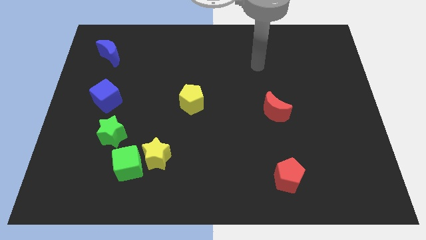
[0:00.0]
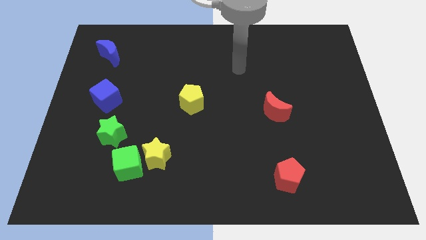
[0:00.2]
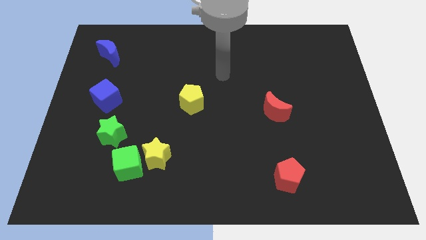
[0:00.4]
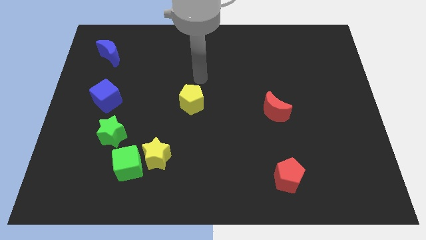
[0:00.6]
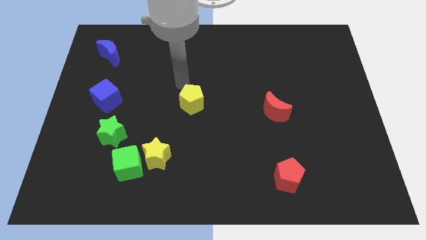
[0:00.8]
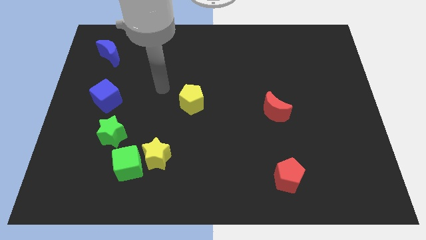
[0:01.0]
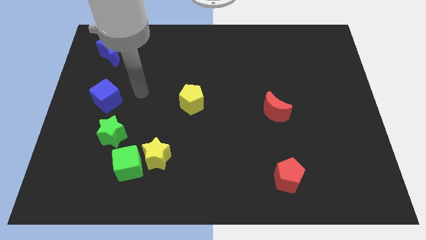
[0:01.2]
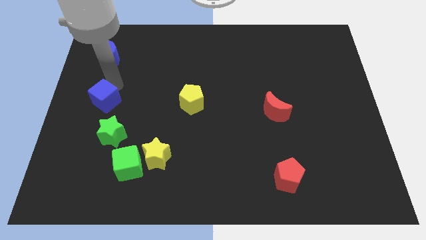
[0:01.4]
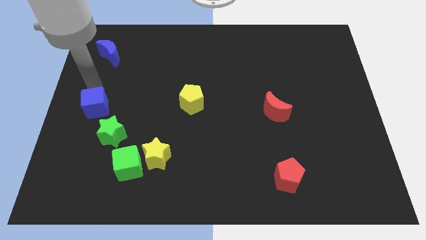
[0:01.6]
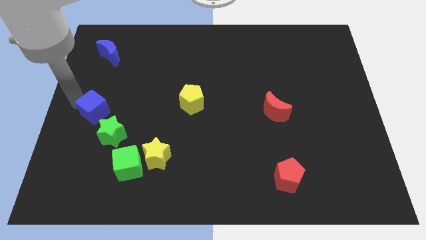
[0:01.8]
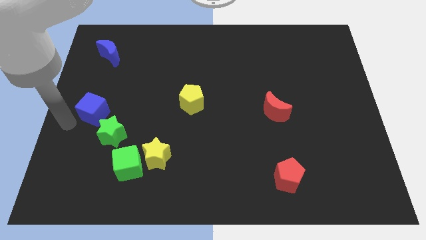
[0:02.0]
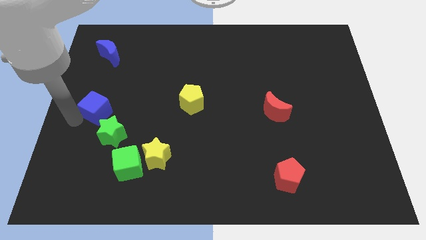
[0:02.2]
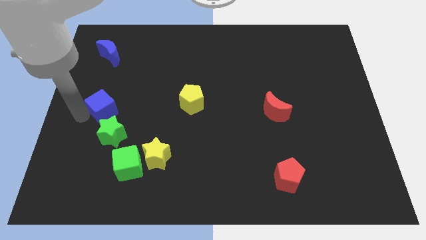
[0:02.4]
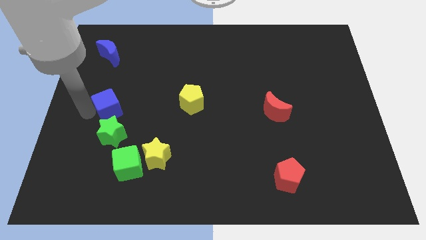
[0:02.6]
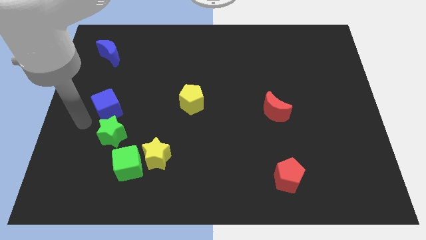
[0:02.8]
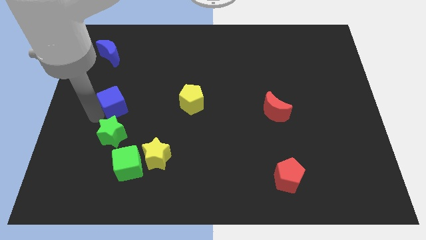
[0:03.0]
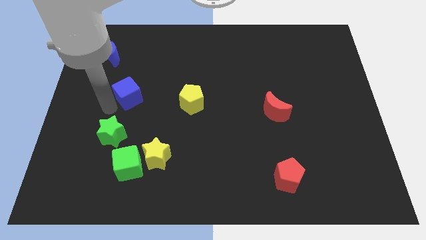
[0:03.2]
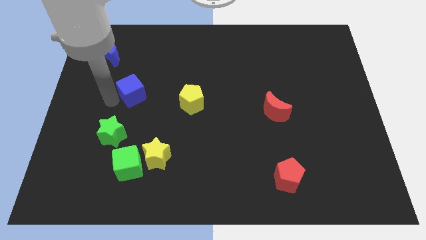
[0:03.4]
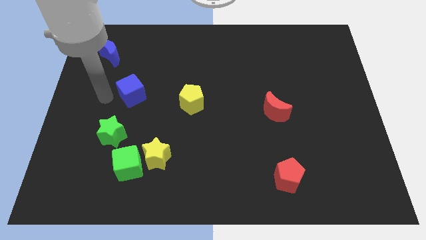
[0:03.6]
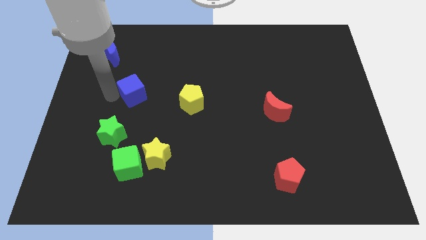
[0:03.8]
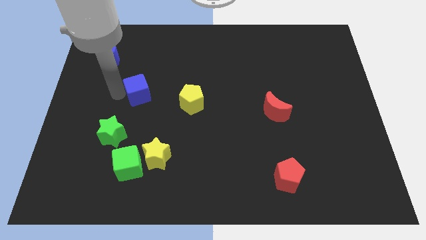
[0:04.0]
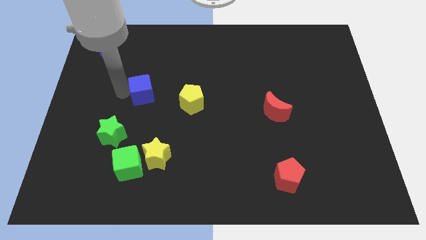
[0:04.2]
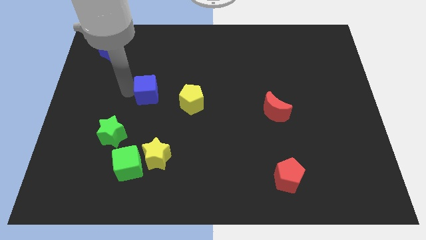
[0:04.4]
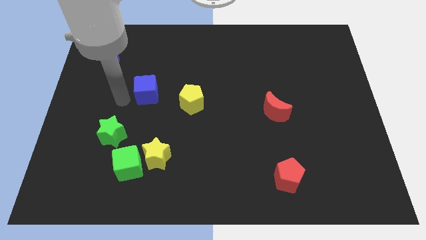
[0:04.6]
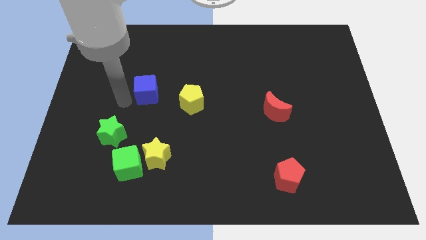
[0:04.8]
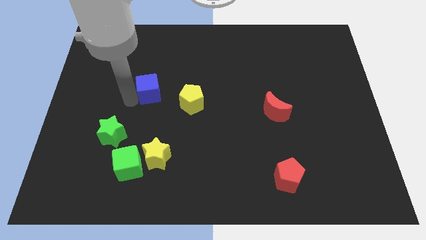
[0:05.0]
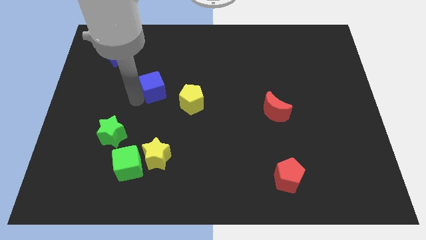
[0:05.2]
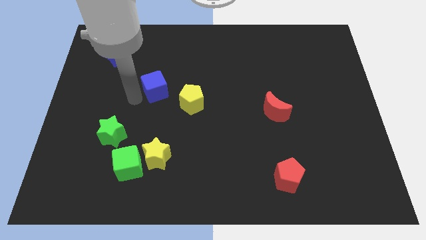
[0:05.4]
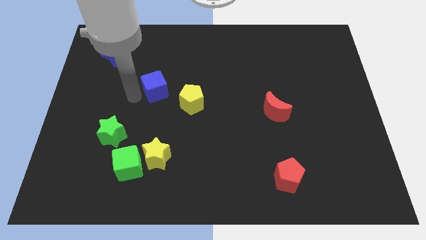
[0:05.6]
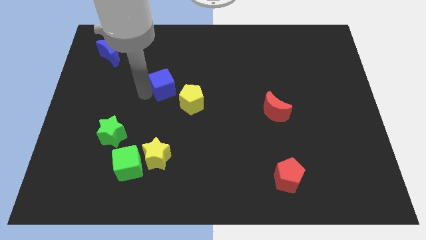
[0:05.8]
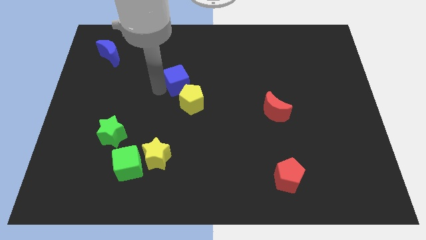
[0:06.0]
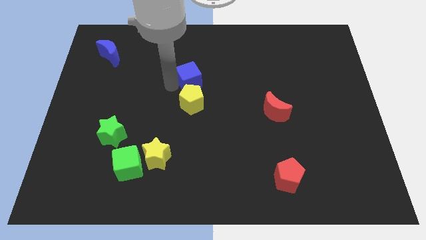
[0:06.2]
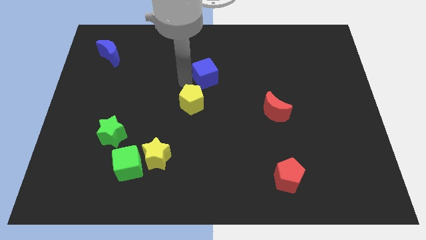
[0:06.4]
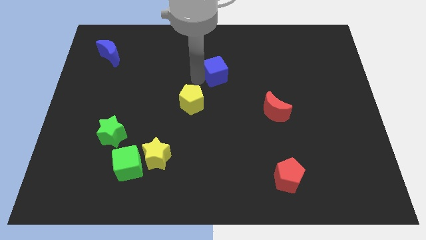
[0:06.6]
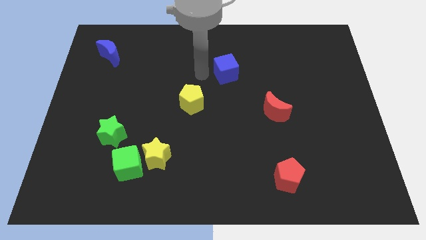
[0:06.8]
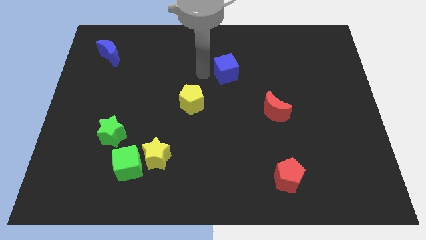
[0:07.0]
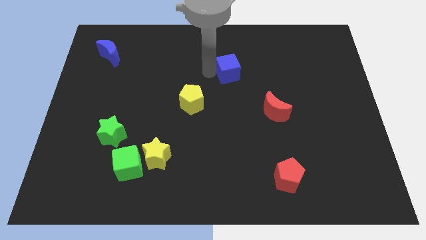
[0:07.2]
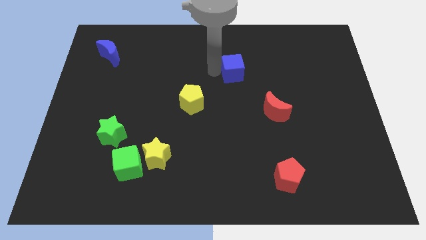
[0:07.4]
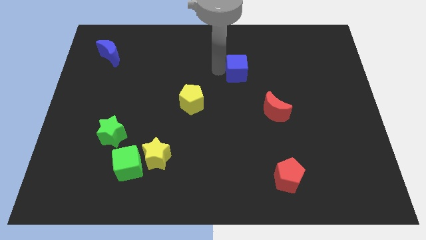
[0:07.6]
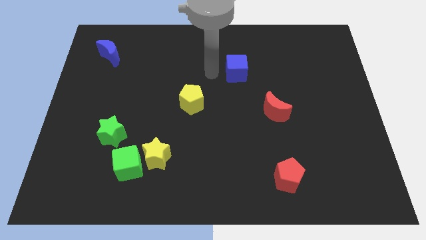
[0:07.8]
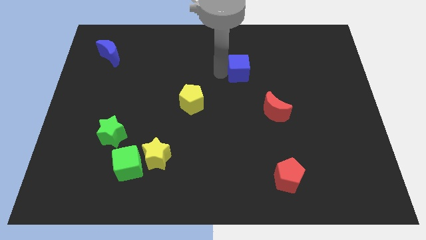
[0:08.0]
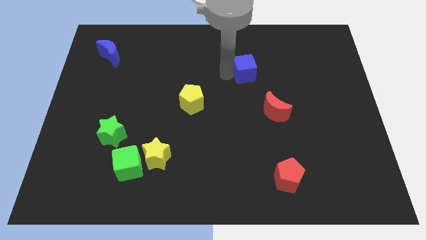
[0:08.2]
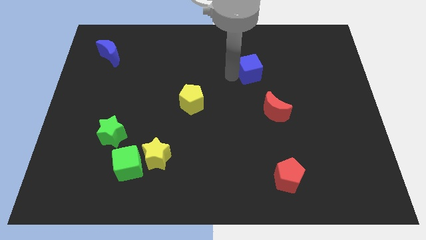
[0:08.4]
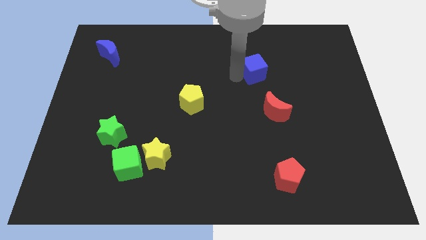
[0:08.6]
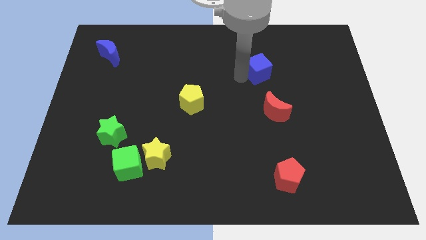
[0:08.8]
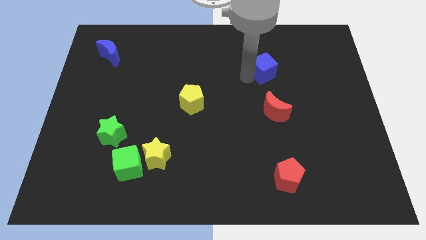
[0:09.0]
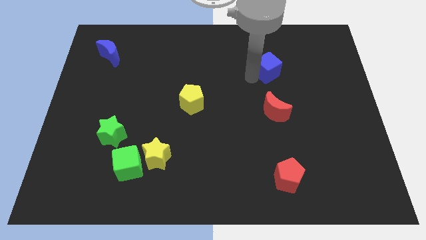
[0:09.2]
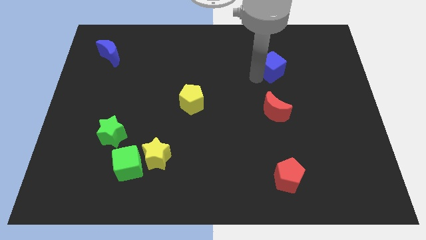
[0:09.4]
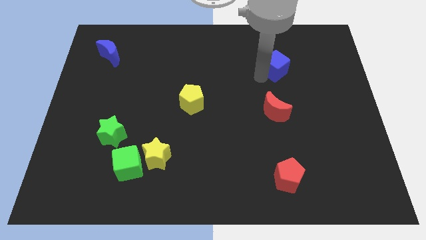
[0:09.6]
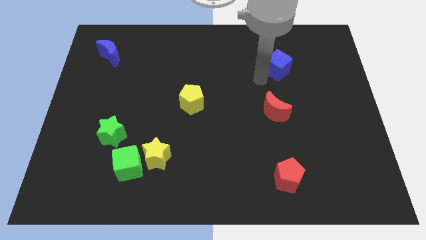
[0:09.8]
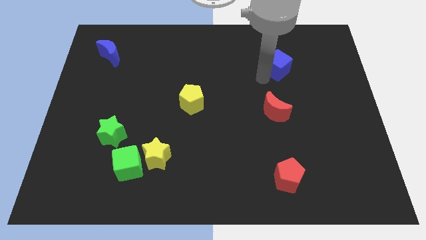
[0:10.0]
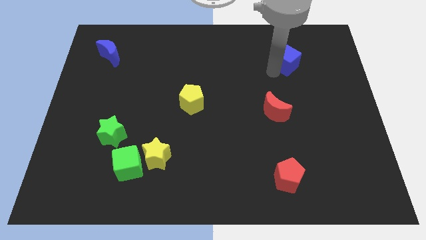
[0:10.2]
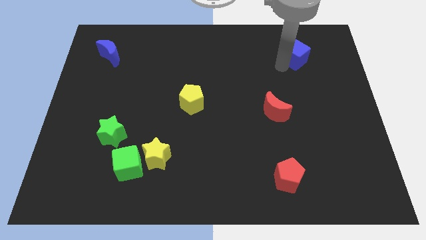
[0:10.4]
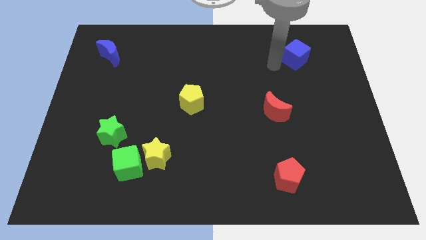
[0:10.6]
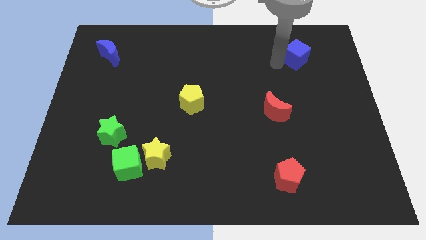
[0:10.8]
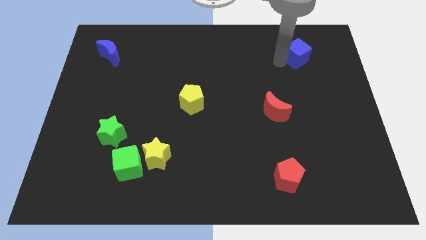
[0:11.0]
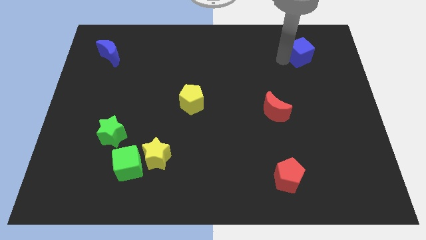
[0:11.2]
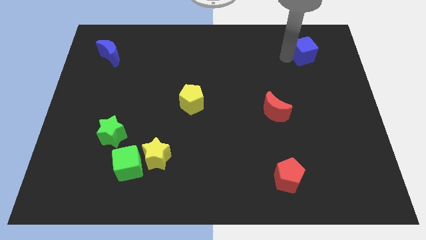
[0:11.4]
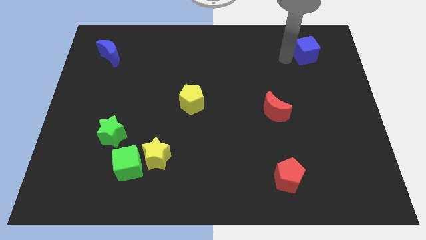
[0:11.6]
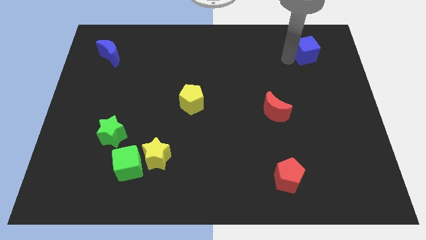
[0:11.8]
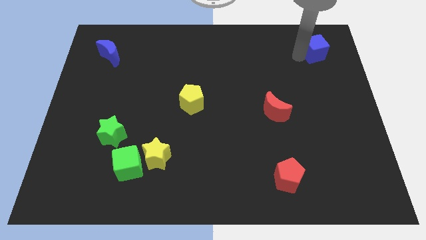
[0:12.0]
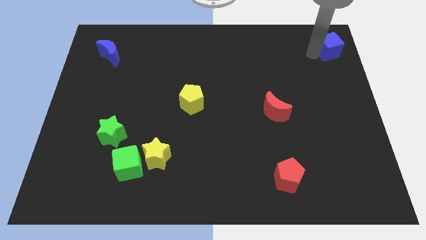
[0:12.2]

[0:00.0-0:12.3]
push the blue cube to the upper right corner

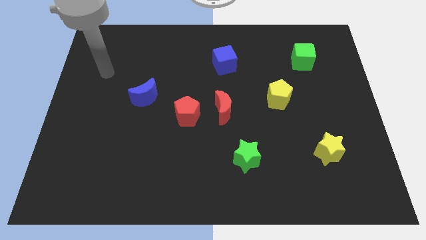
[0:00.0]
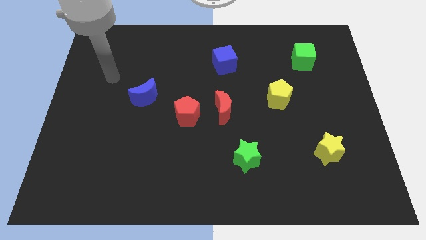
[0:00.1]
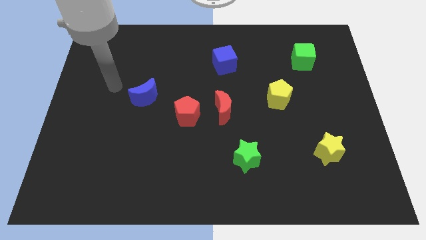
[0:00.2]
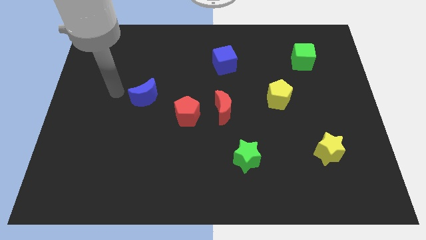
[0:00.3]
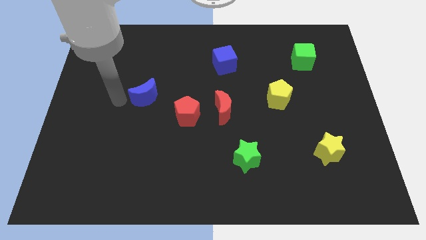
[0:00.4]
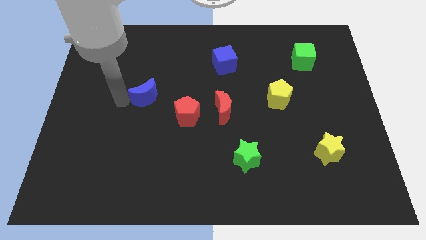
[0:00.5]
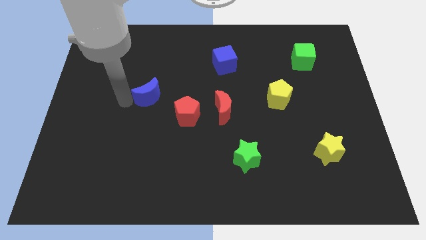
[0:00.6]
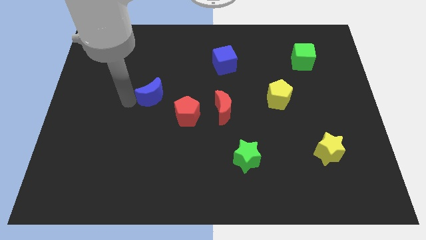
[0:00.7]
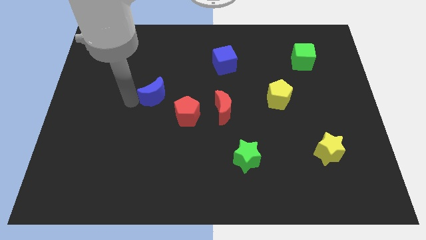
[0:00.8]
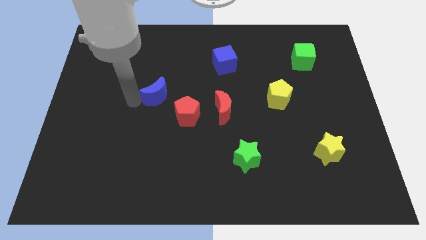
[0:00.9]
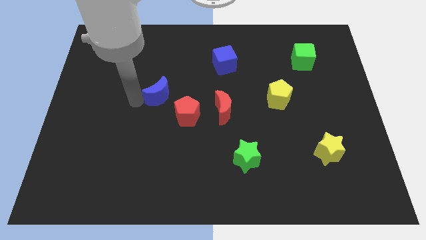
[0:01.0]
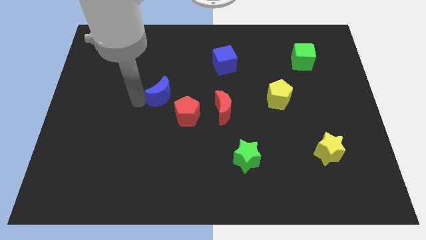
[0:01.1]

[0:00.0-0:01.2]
push the blue moon to the center
